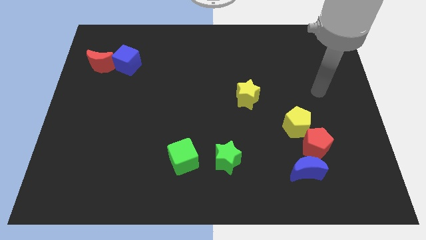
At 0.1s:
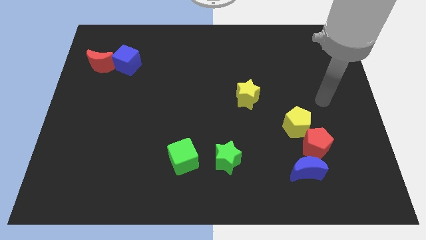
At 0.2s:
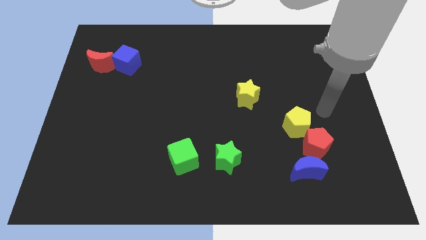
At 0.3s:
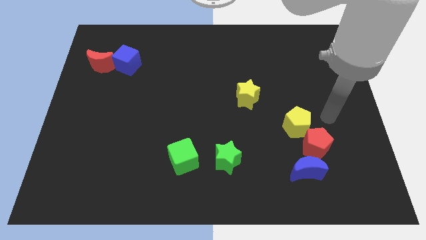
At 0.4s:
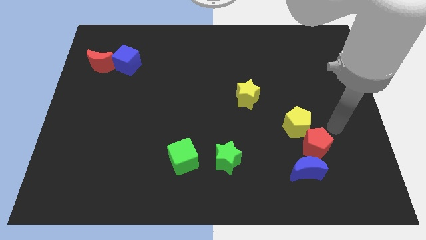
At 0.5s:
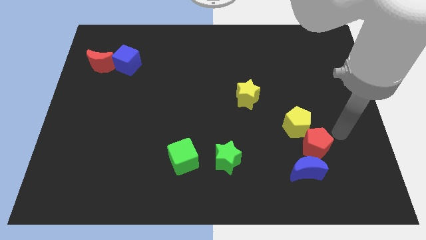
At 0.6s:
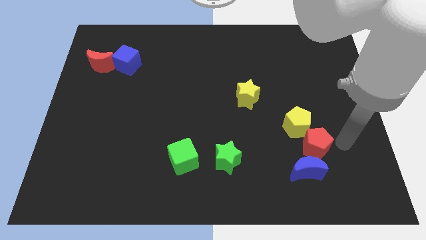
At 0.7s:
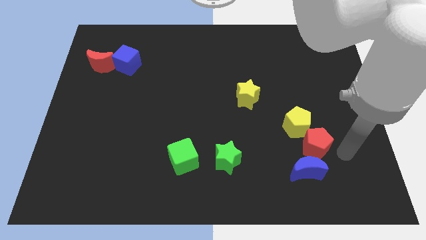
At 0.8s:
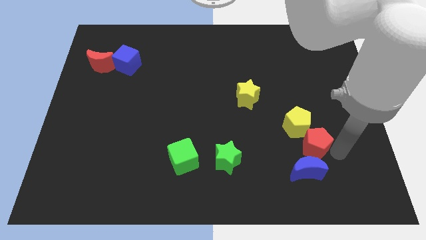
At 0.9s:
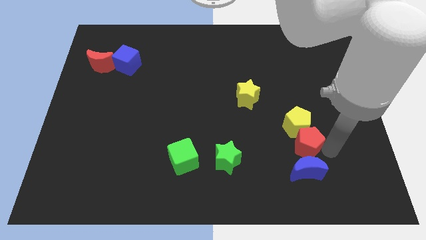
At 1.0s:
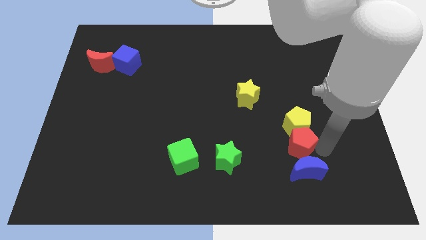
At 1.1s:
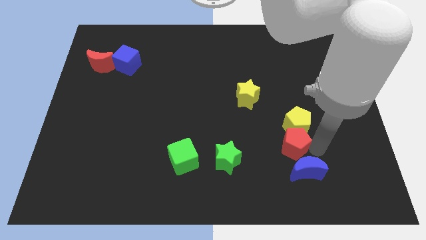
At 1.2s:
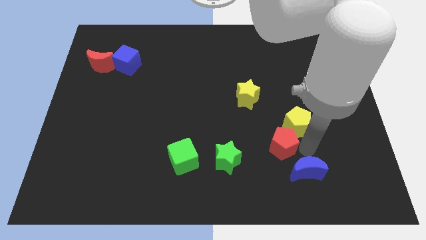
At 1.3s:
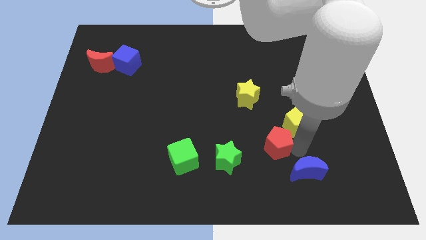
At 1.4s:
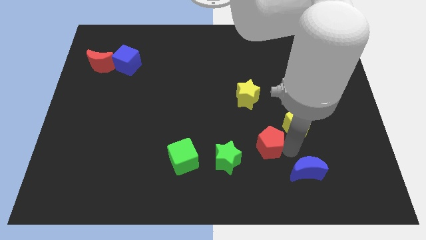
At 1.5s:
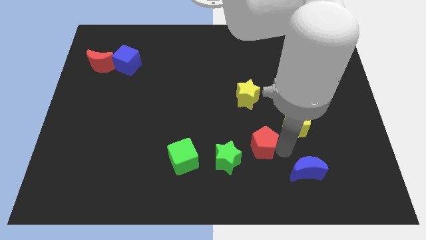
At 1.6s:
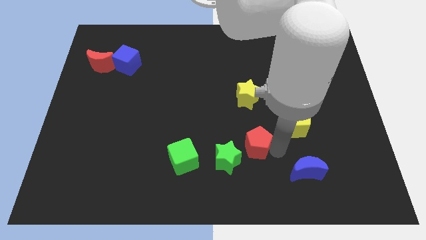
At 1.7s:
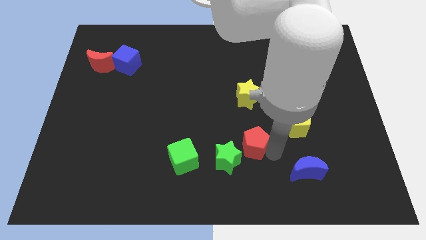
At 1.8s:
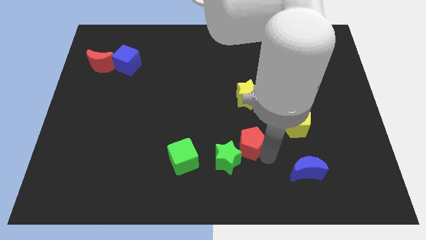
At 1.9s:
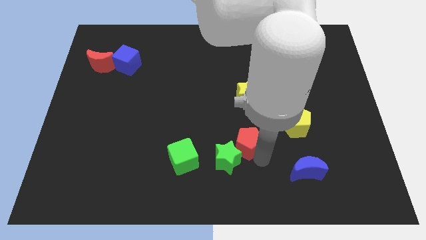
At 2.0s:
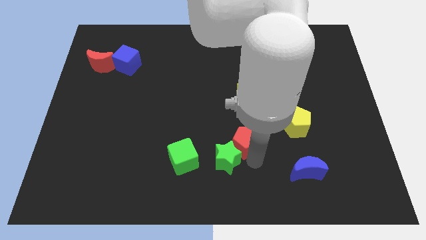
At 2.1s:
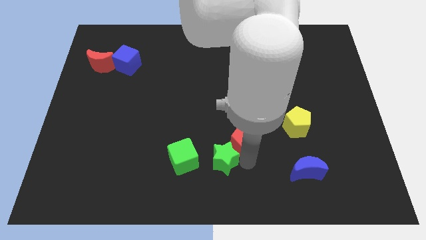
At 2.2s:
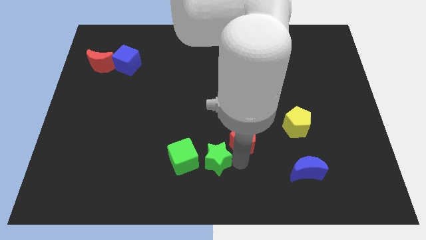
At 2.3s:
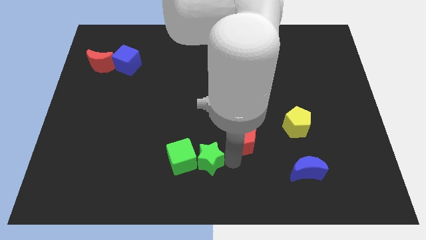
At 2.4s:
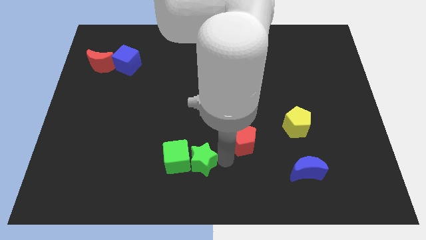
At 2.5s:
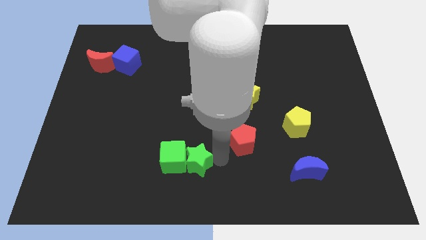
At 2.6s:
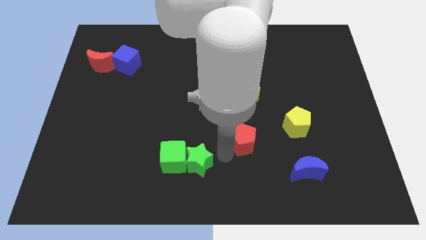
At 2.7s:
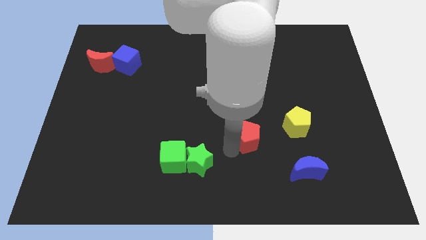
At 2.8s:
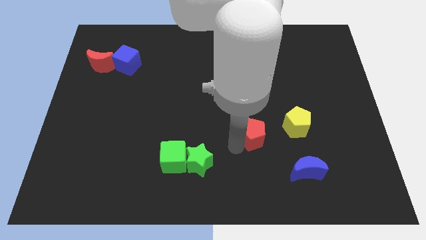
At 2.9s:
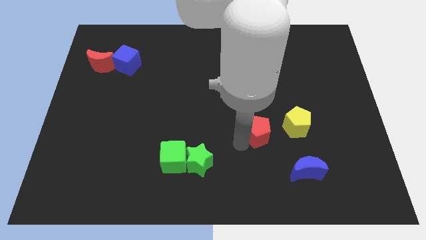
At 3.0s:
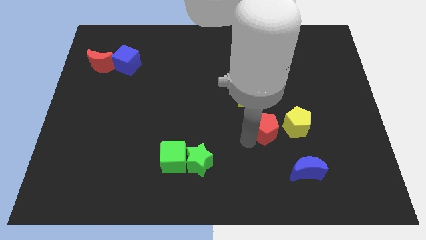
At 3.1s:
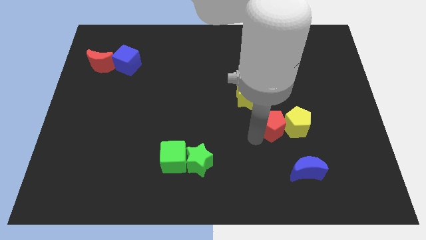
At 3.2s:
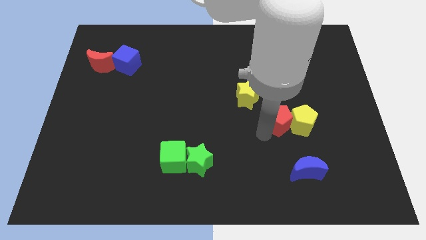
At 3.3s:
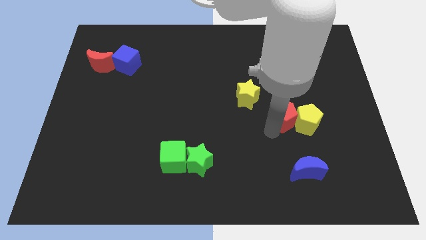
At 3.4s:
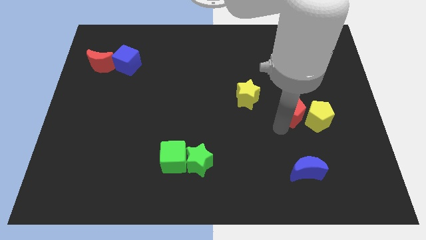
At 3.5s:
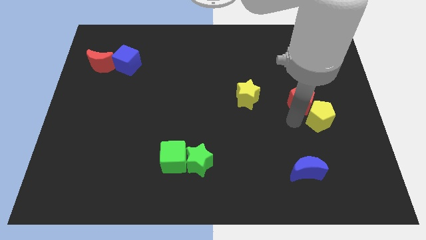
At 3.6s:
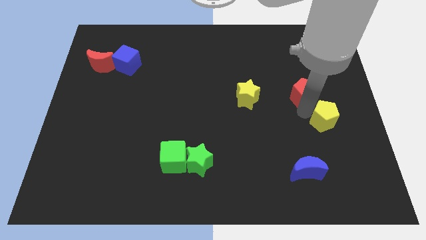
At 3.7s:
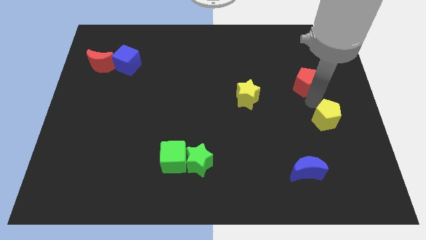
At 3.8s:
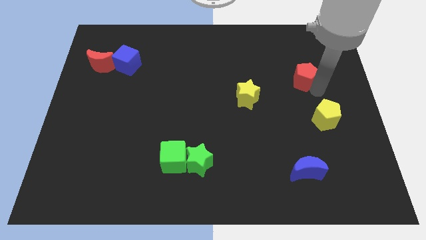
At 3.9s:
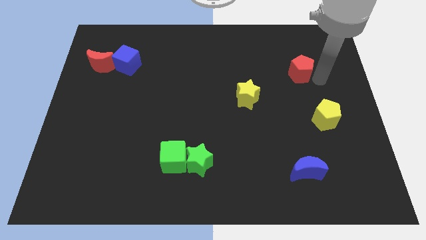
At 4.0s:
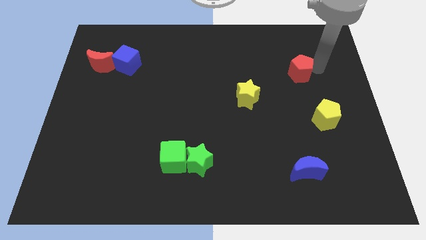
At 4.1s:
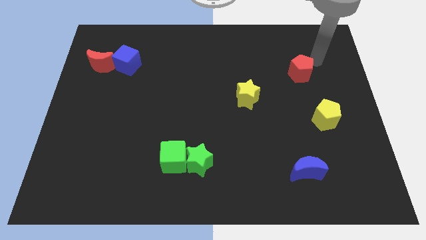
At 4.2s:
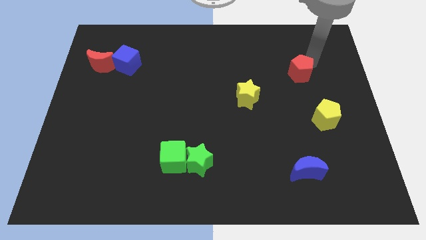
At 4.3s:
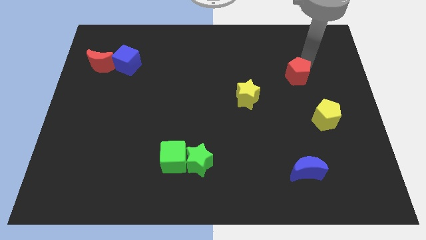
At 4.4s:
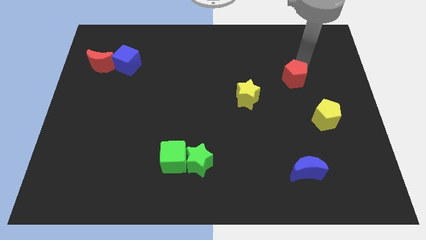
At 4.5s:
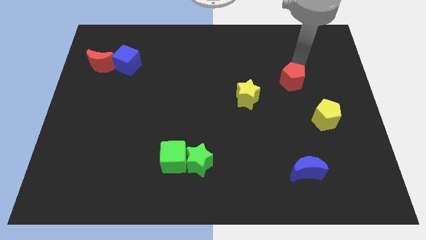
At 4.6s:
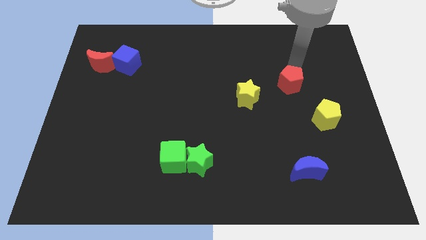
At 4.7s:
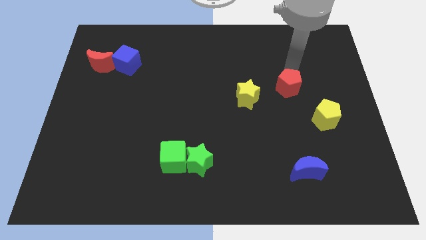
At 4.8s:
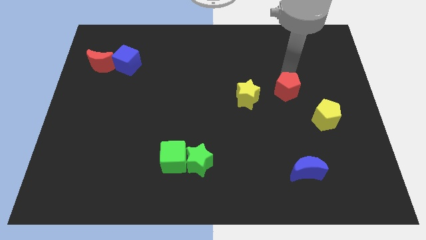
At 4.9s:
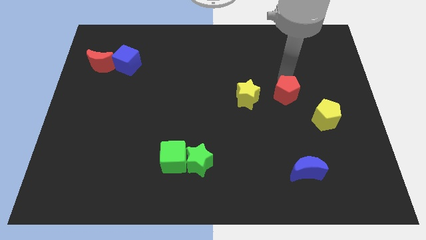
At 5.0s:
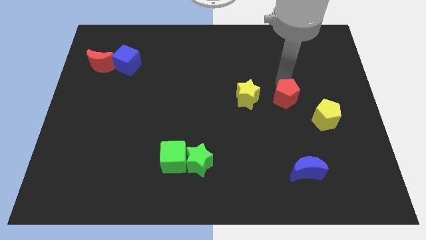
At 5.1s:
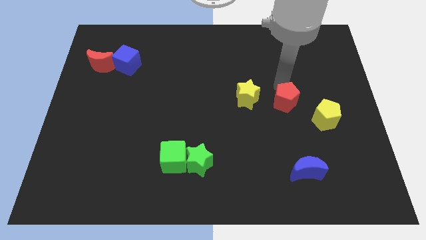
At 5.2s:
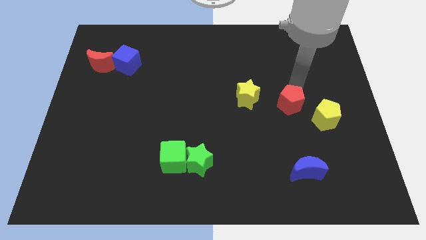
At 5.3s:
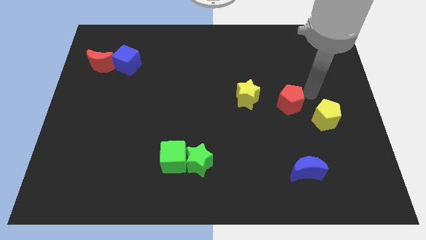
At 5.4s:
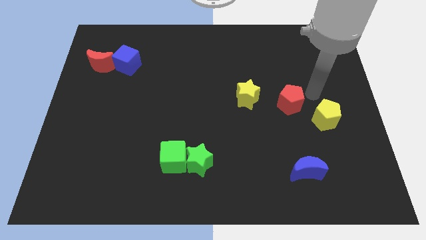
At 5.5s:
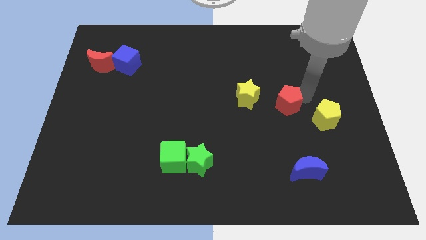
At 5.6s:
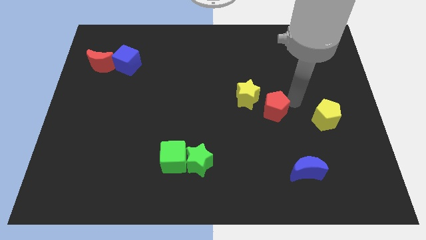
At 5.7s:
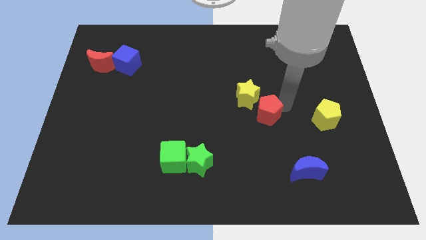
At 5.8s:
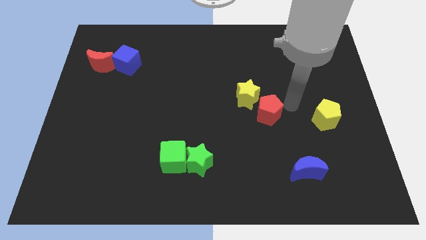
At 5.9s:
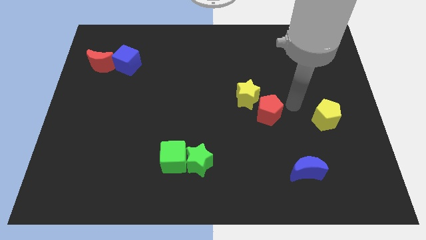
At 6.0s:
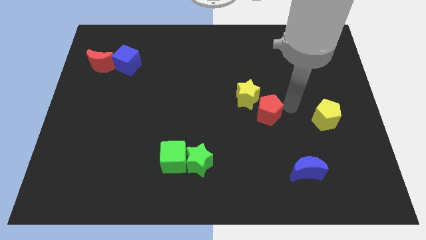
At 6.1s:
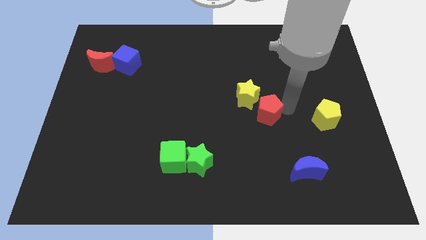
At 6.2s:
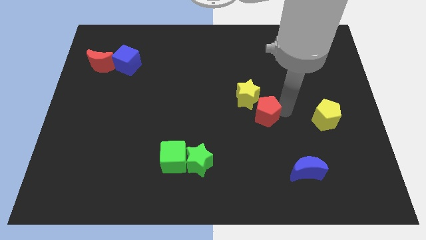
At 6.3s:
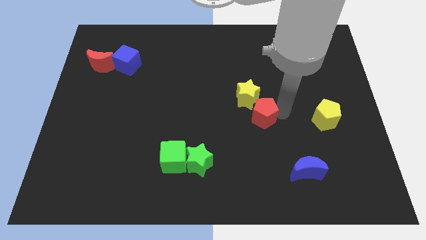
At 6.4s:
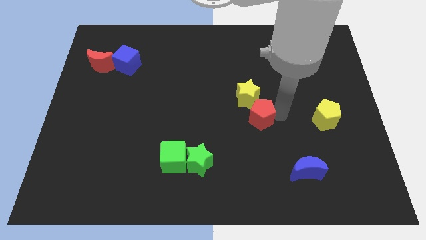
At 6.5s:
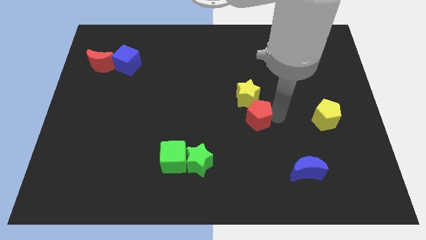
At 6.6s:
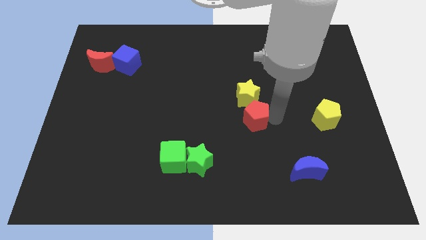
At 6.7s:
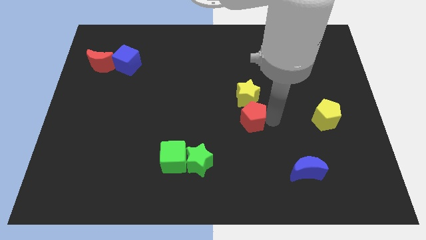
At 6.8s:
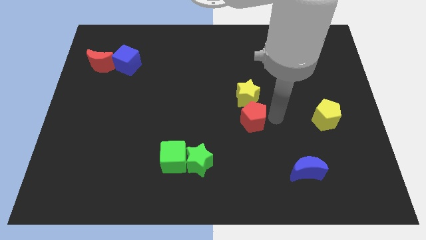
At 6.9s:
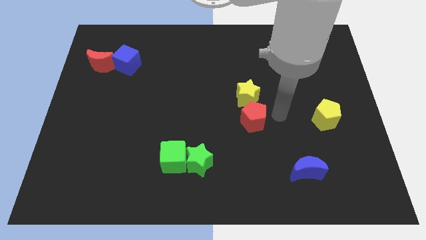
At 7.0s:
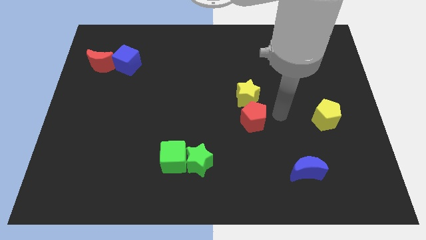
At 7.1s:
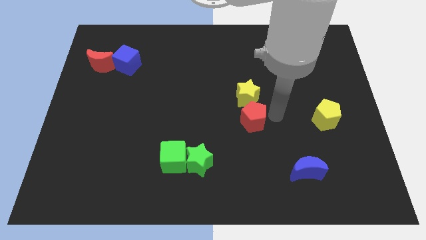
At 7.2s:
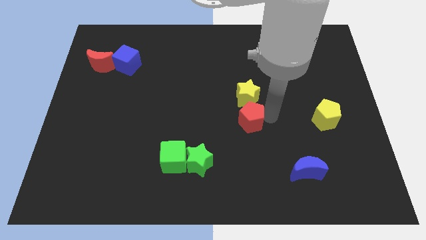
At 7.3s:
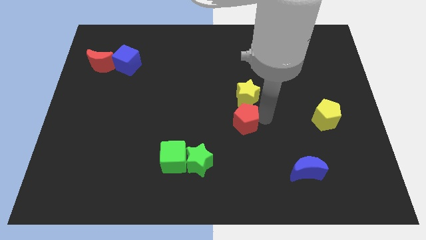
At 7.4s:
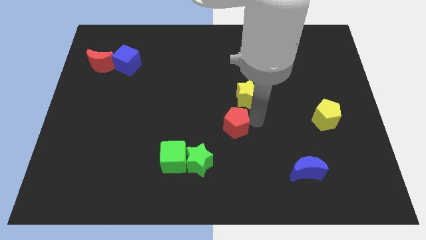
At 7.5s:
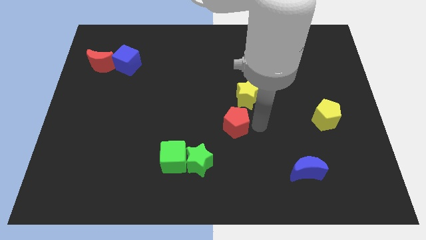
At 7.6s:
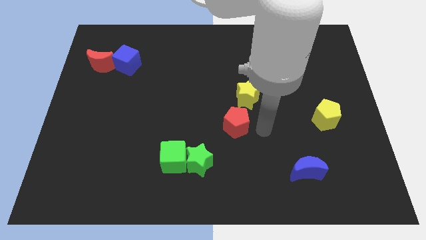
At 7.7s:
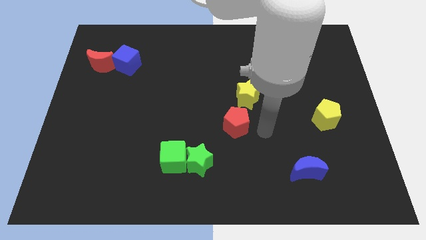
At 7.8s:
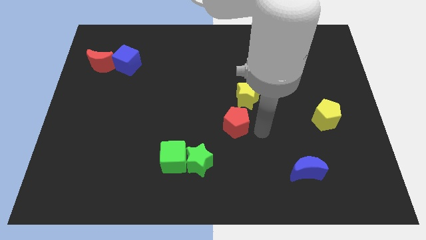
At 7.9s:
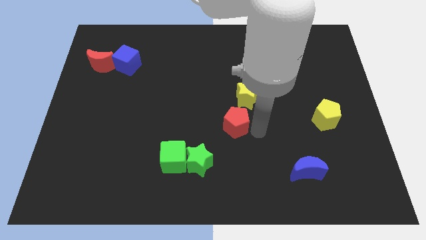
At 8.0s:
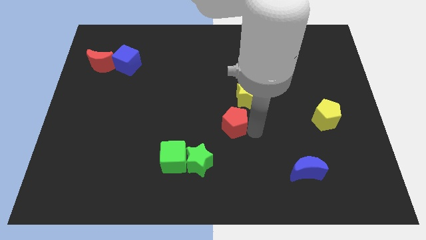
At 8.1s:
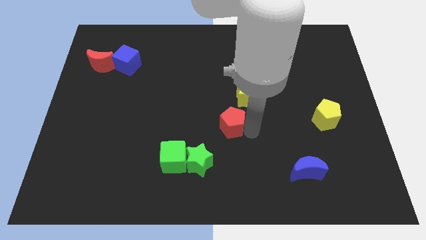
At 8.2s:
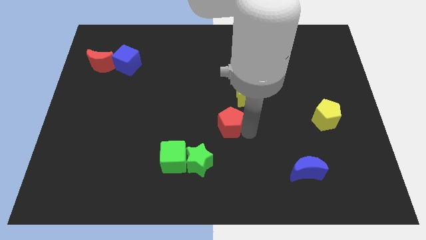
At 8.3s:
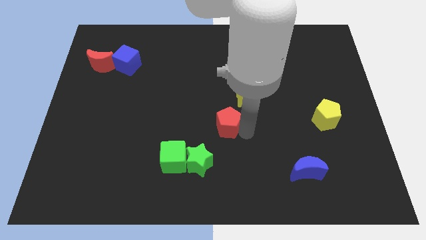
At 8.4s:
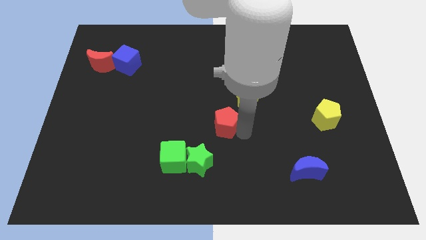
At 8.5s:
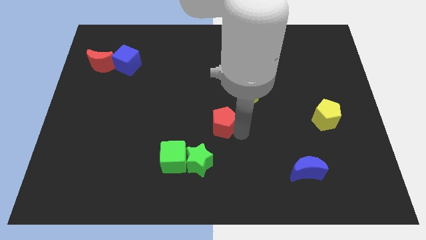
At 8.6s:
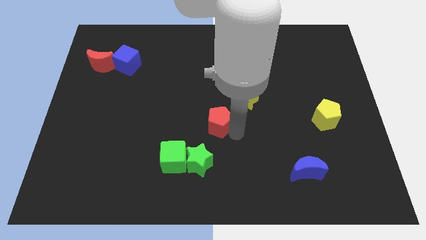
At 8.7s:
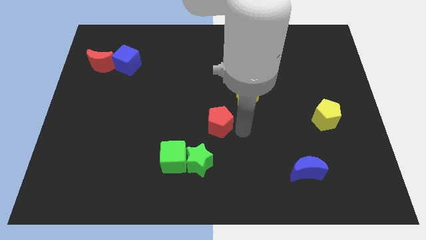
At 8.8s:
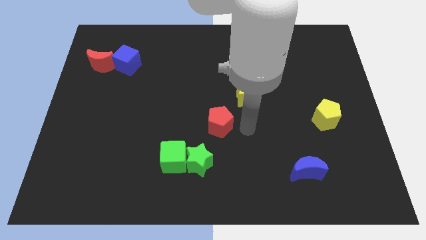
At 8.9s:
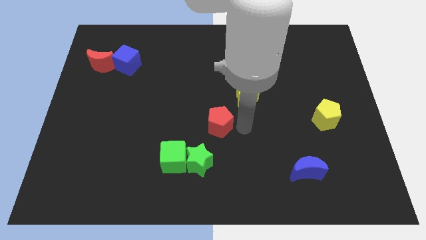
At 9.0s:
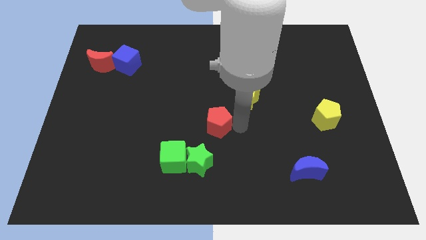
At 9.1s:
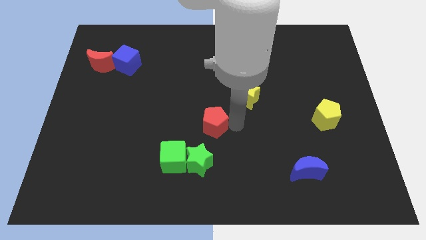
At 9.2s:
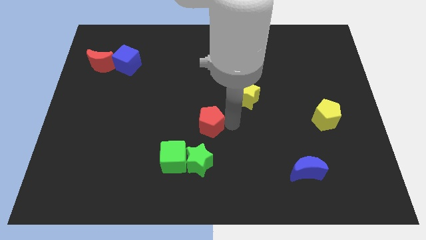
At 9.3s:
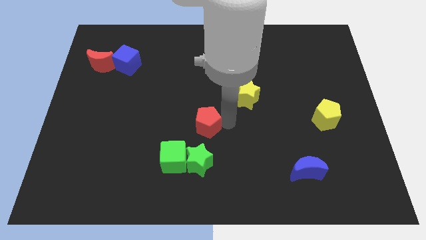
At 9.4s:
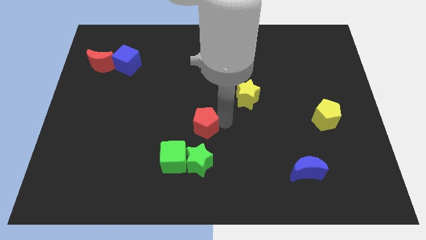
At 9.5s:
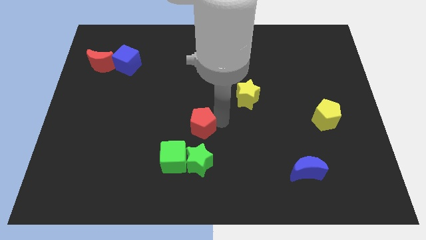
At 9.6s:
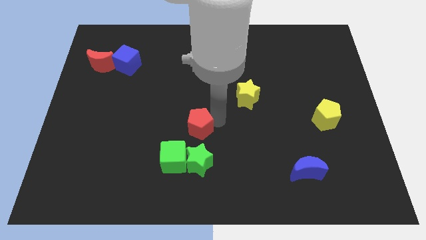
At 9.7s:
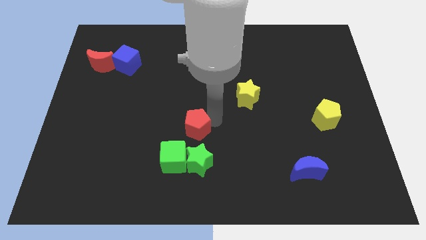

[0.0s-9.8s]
push the red pentagon to the top side of the green cube
